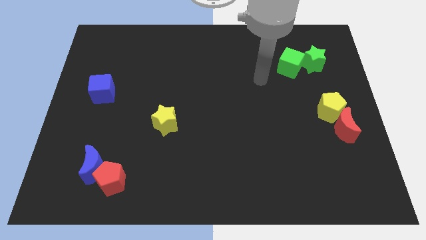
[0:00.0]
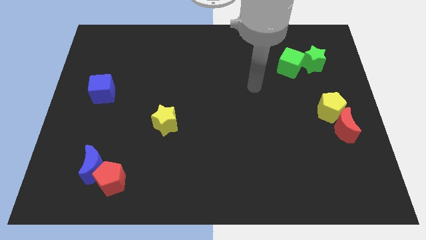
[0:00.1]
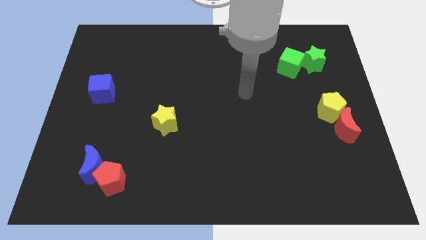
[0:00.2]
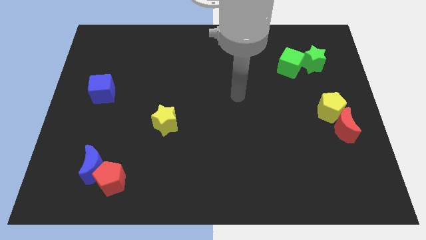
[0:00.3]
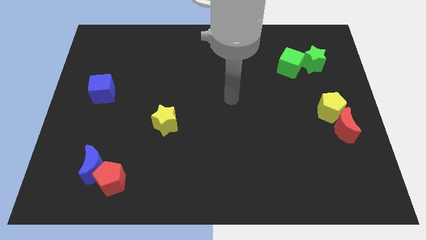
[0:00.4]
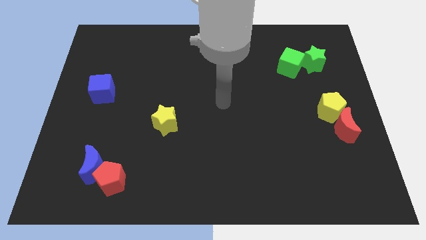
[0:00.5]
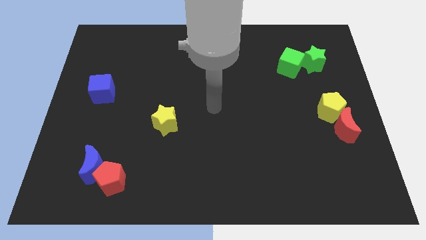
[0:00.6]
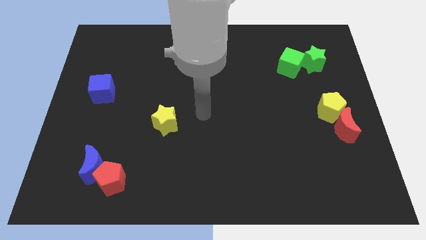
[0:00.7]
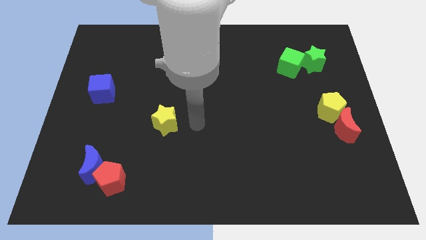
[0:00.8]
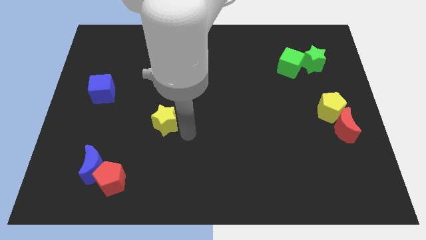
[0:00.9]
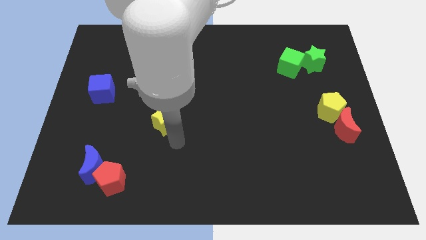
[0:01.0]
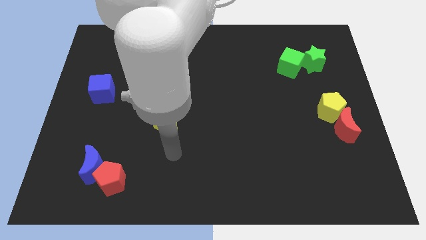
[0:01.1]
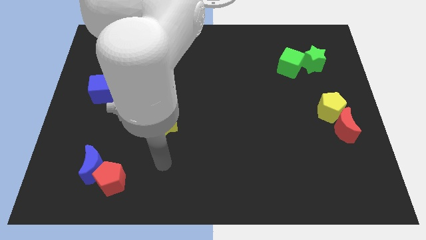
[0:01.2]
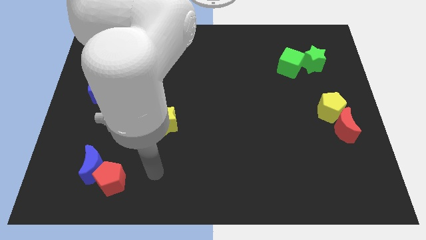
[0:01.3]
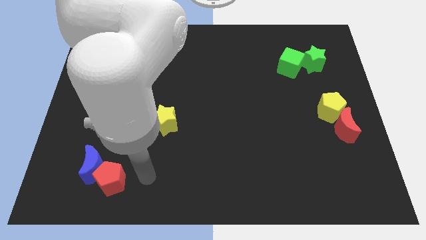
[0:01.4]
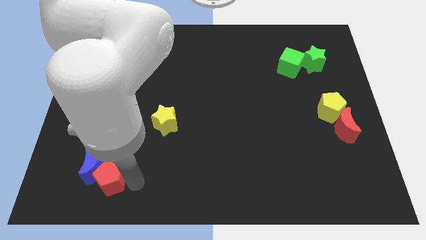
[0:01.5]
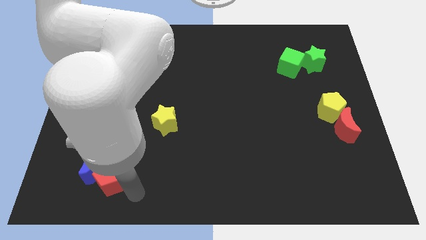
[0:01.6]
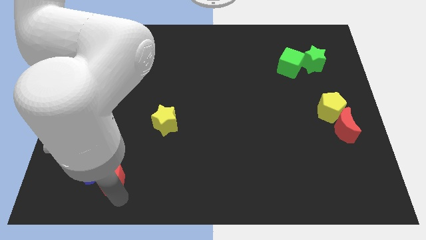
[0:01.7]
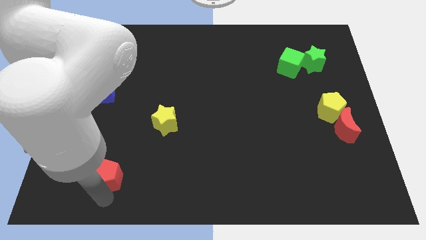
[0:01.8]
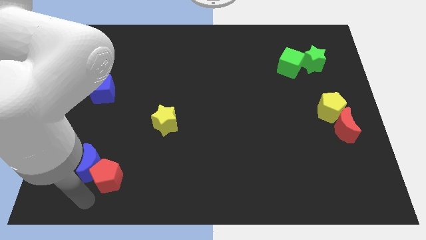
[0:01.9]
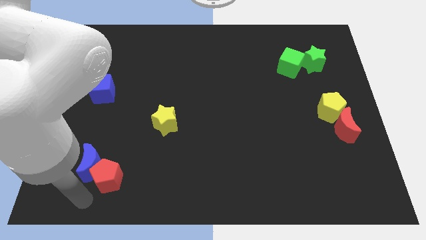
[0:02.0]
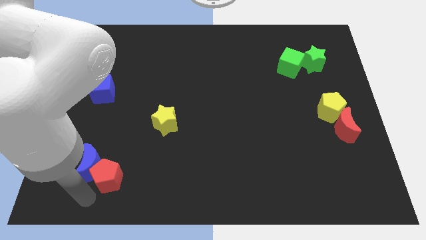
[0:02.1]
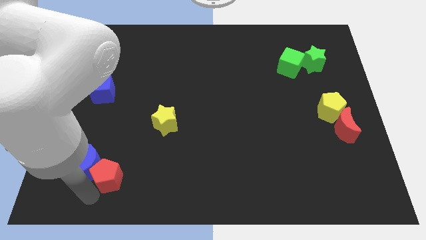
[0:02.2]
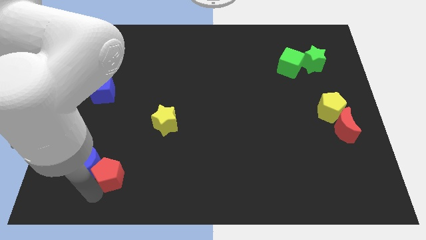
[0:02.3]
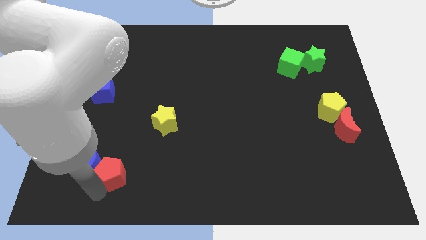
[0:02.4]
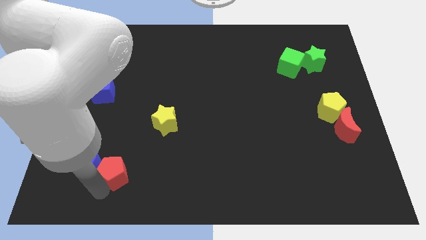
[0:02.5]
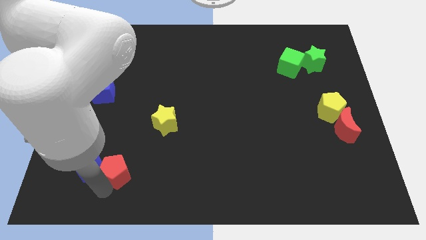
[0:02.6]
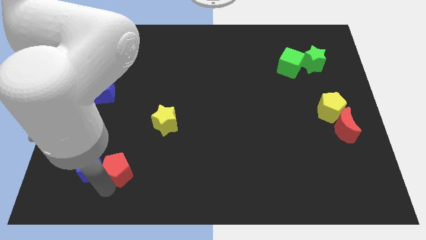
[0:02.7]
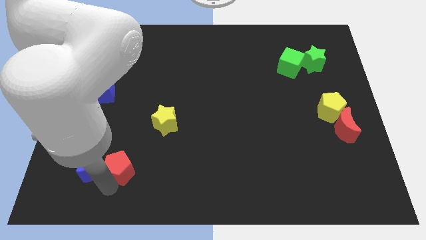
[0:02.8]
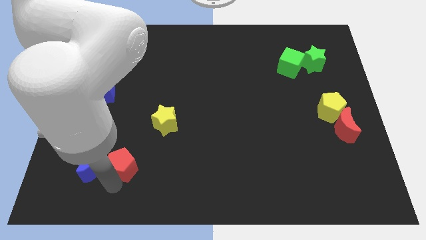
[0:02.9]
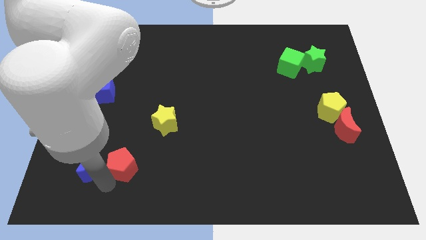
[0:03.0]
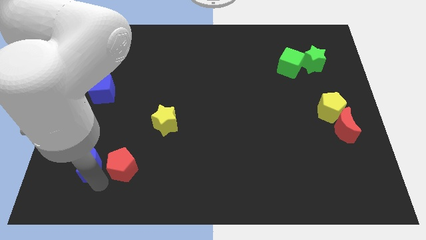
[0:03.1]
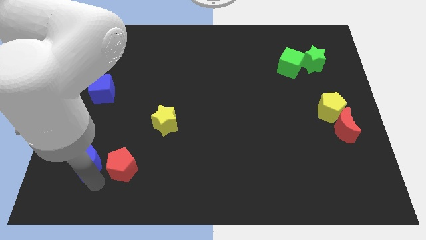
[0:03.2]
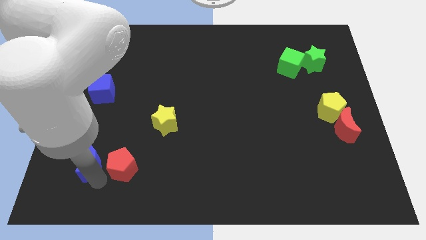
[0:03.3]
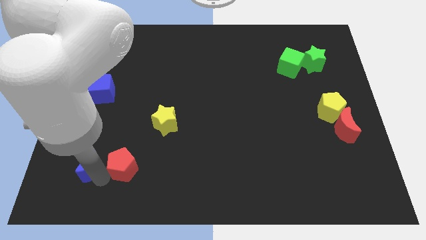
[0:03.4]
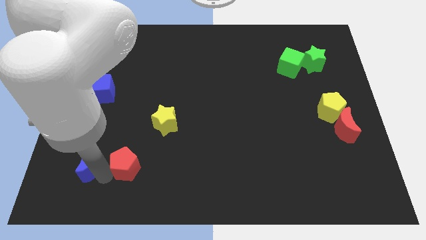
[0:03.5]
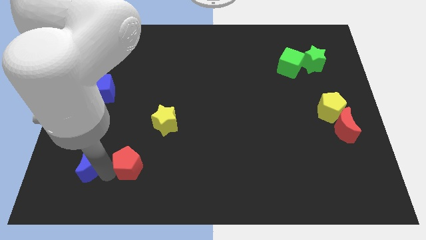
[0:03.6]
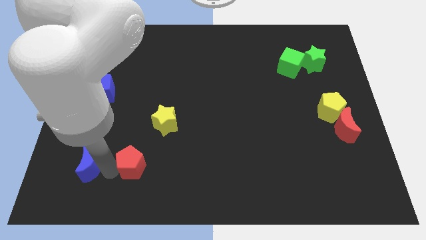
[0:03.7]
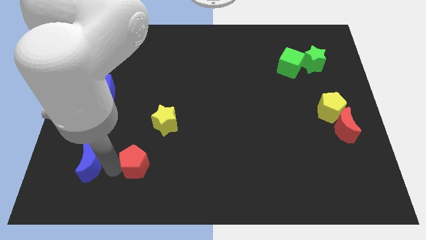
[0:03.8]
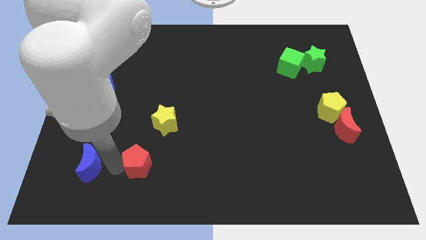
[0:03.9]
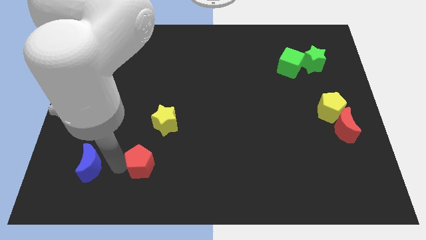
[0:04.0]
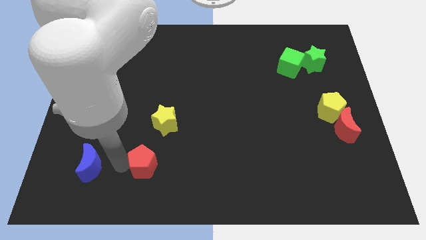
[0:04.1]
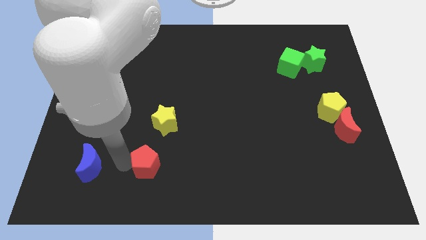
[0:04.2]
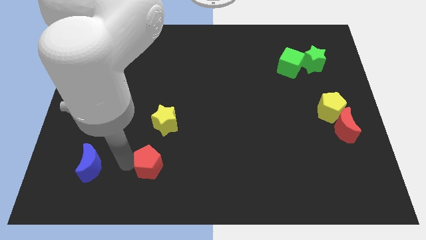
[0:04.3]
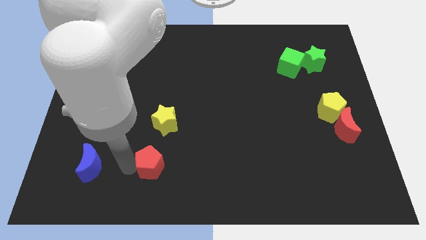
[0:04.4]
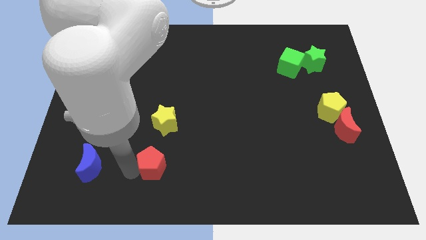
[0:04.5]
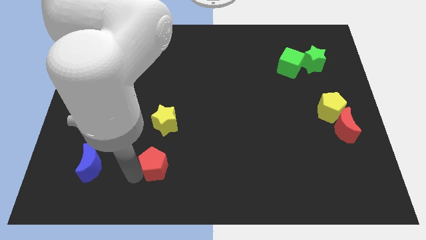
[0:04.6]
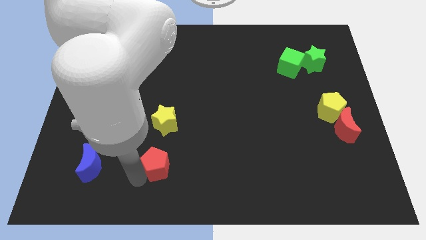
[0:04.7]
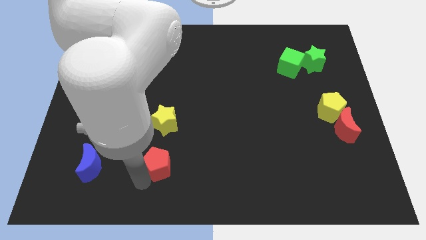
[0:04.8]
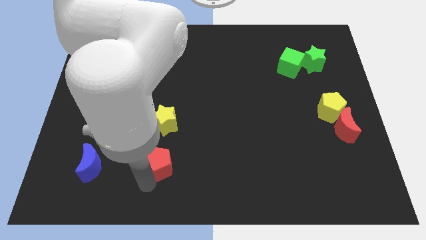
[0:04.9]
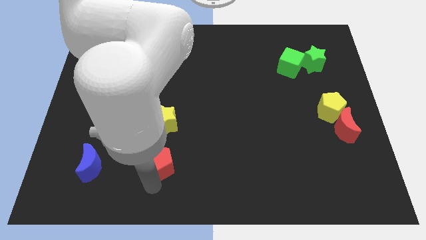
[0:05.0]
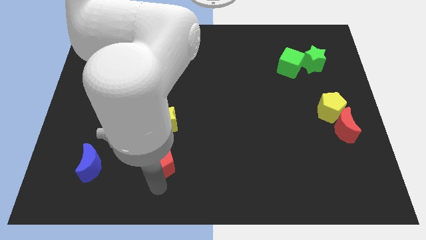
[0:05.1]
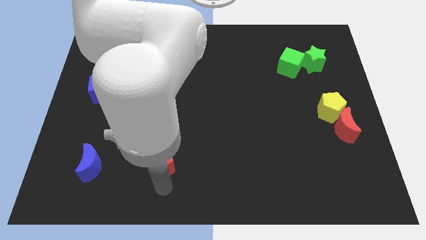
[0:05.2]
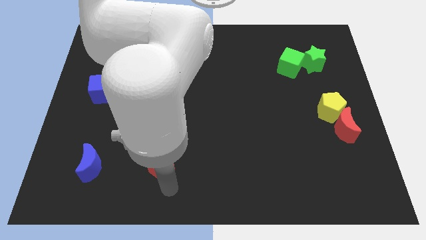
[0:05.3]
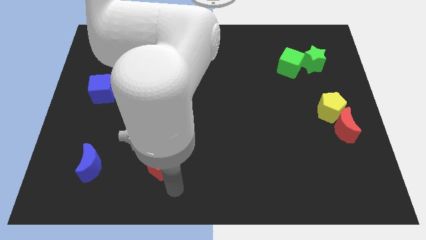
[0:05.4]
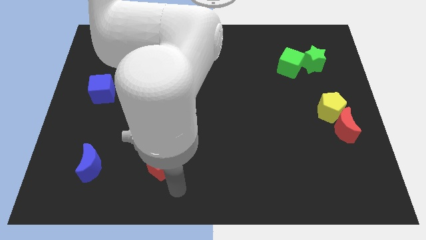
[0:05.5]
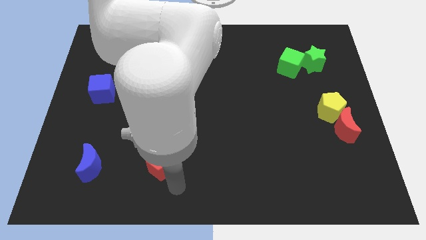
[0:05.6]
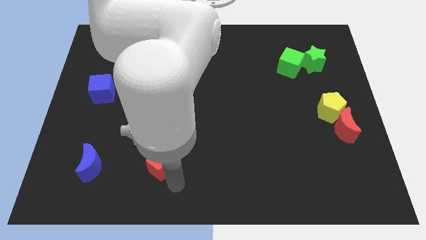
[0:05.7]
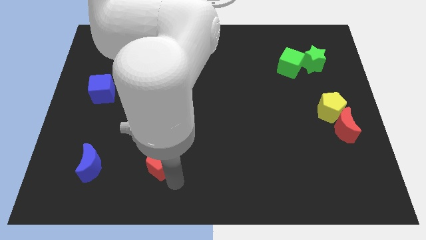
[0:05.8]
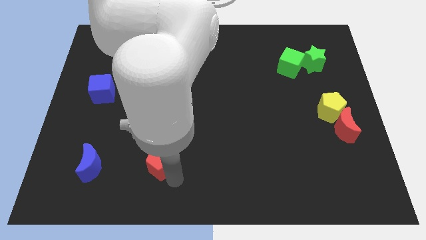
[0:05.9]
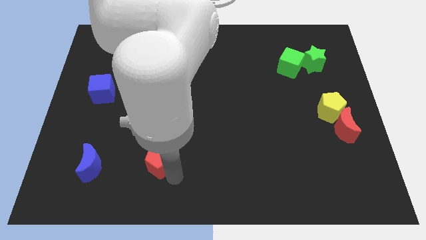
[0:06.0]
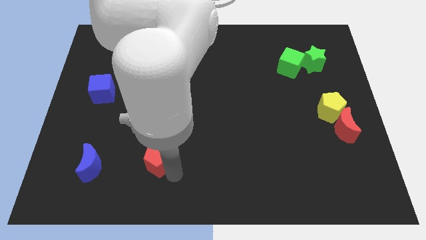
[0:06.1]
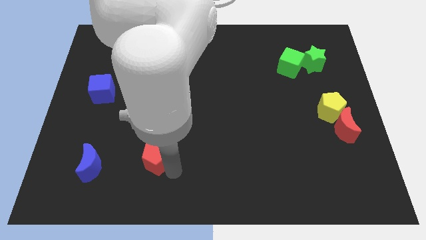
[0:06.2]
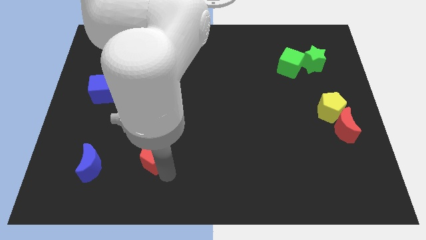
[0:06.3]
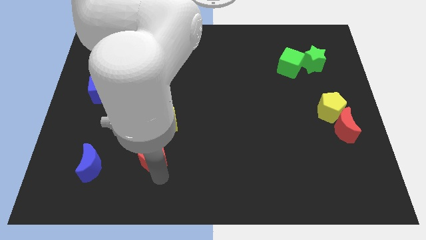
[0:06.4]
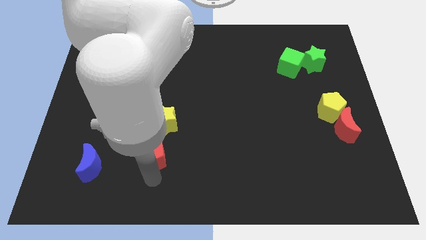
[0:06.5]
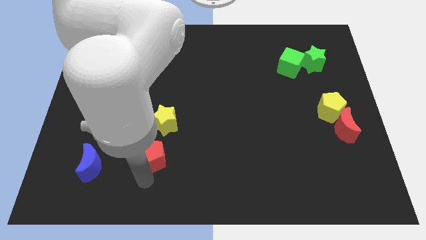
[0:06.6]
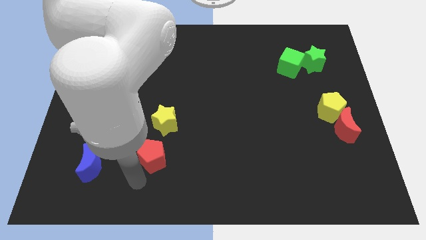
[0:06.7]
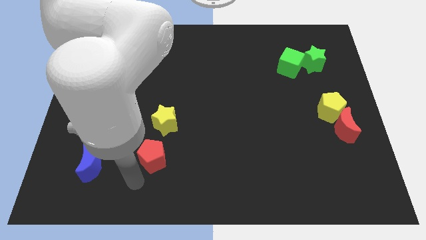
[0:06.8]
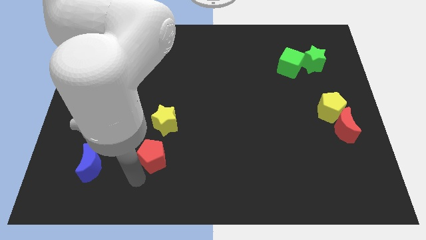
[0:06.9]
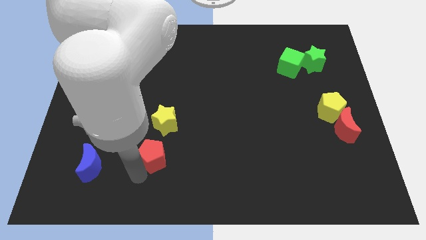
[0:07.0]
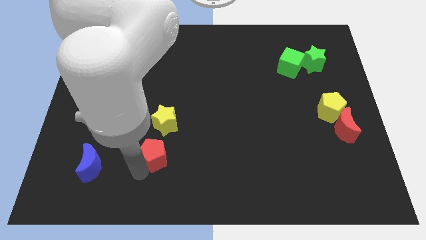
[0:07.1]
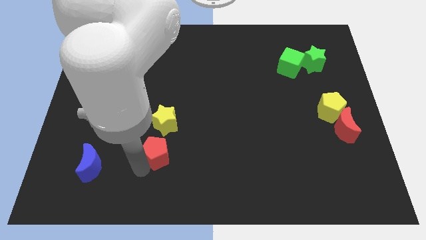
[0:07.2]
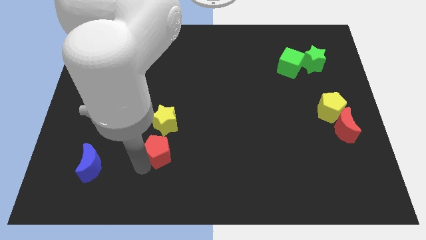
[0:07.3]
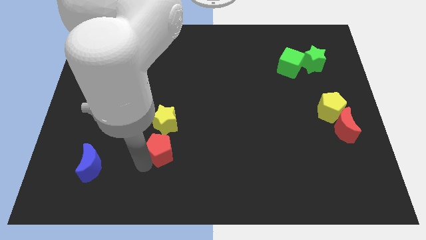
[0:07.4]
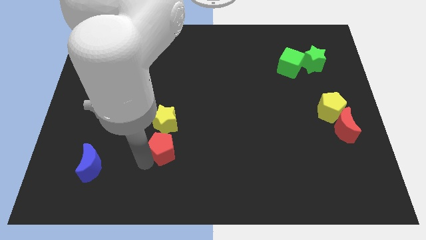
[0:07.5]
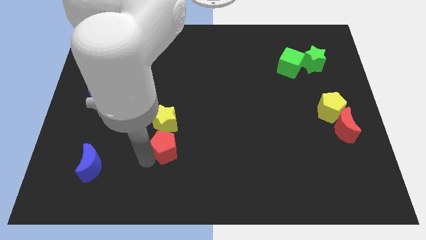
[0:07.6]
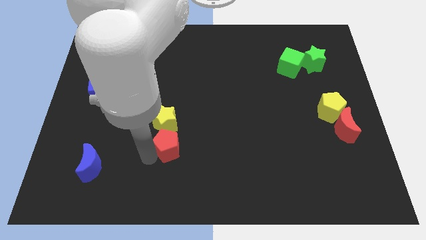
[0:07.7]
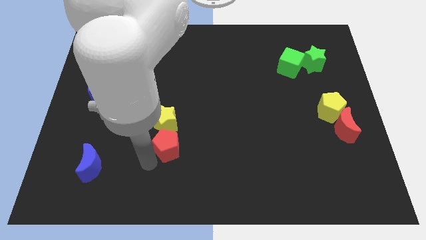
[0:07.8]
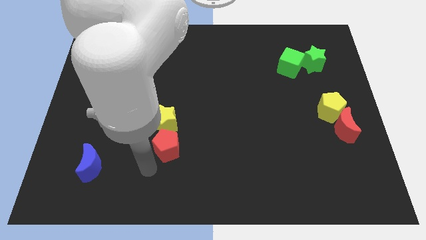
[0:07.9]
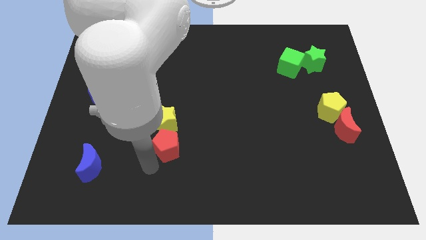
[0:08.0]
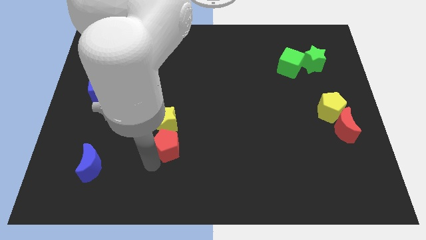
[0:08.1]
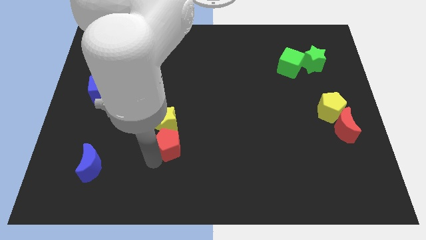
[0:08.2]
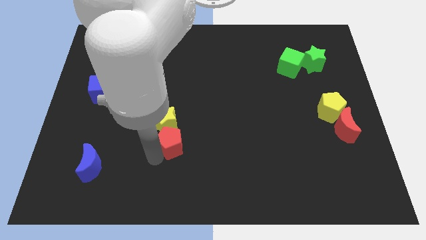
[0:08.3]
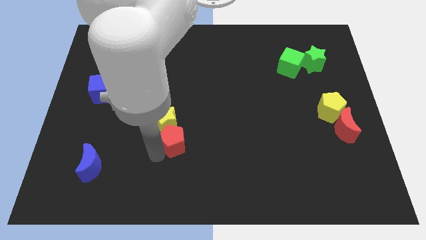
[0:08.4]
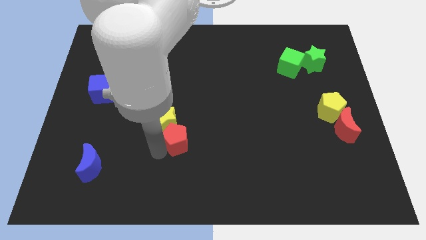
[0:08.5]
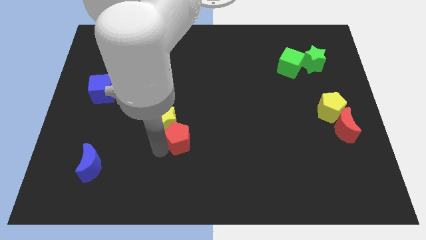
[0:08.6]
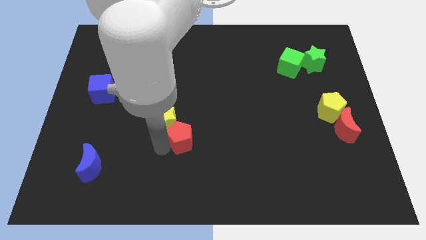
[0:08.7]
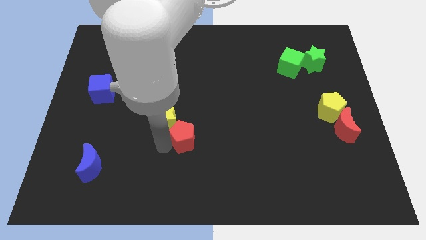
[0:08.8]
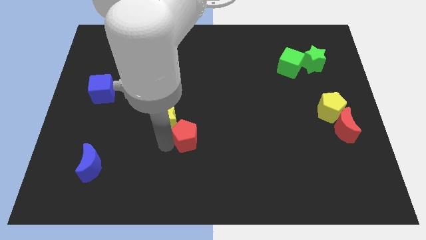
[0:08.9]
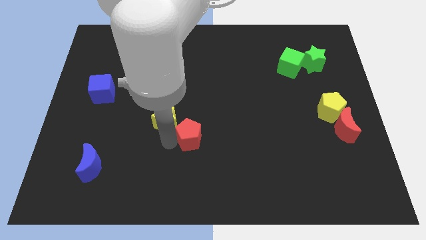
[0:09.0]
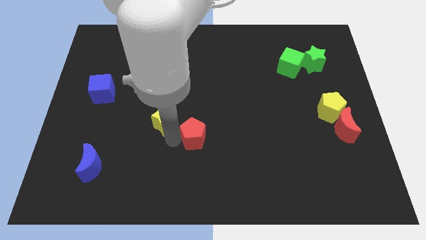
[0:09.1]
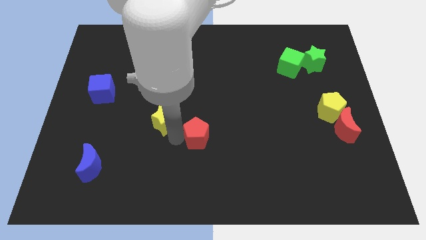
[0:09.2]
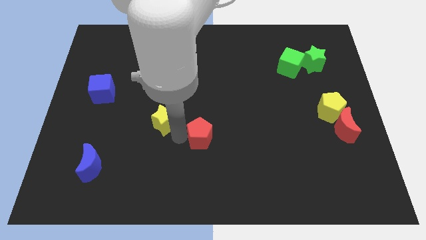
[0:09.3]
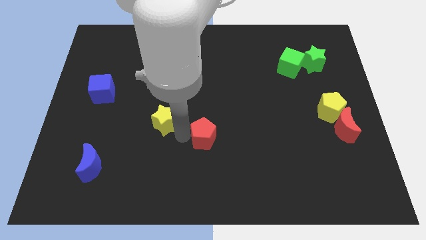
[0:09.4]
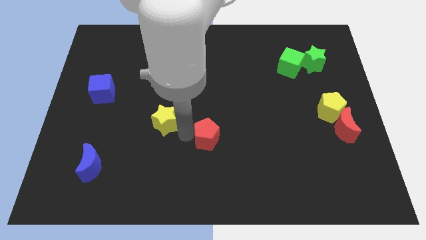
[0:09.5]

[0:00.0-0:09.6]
push the red pentagon diagonally up and to the right
